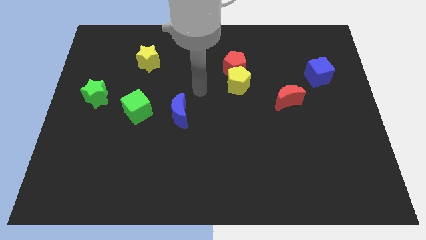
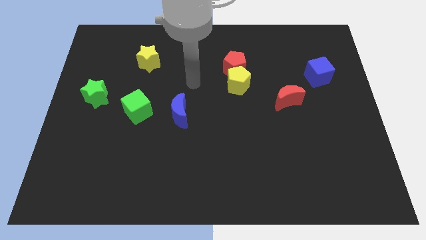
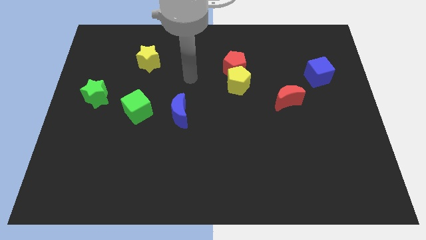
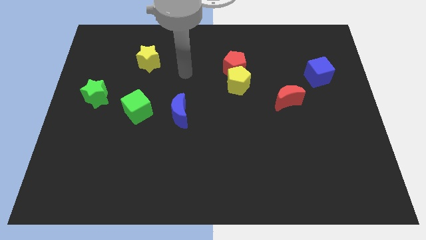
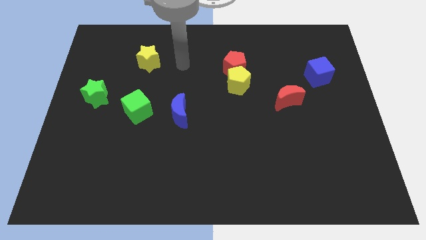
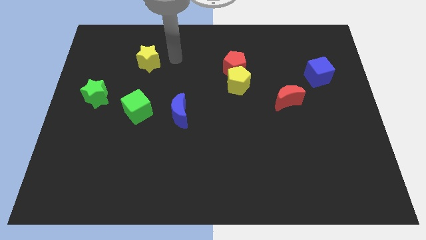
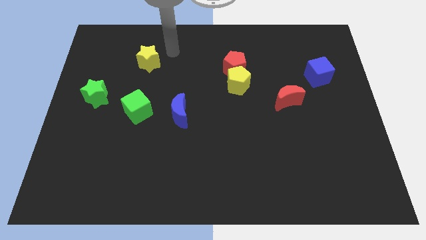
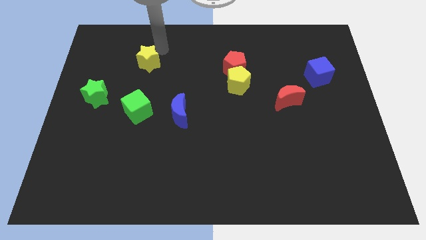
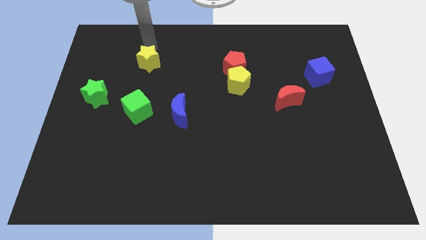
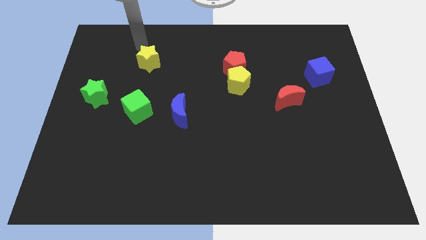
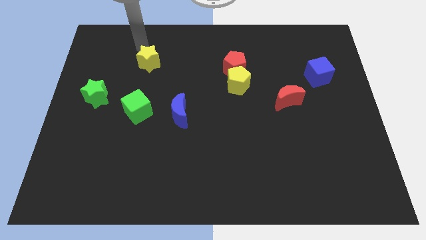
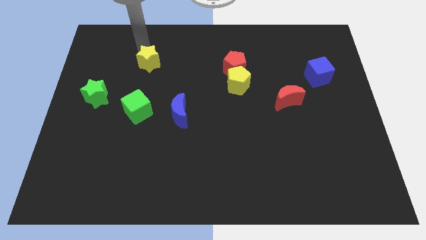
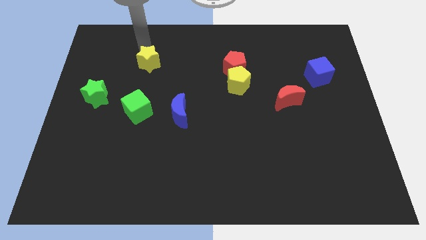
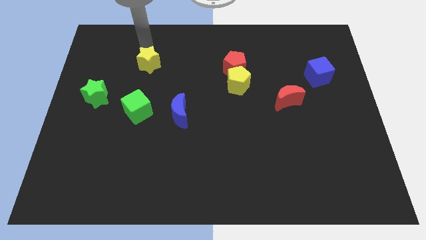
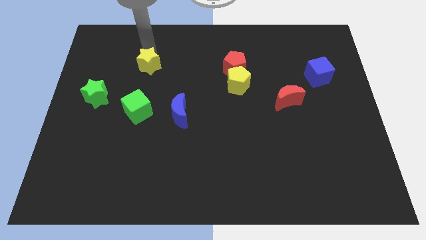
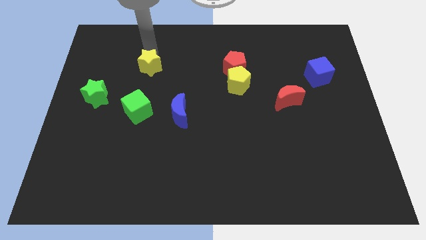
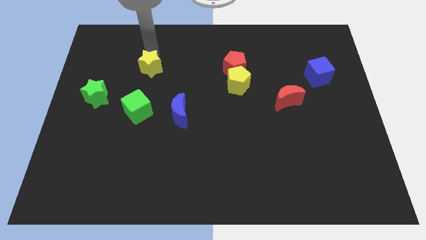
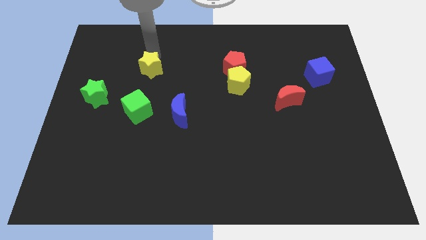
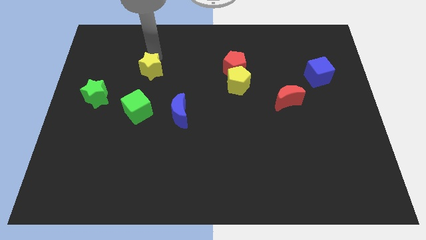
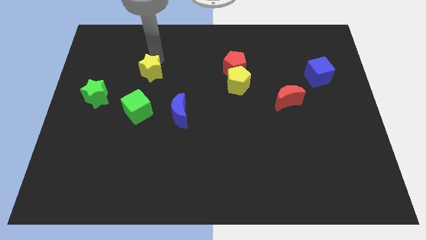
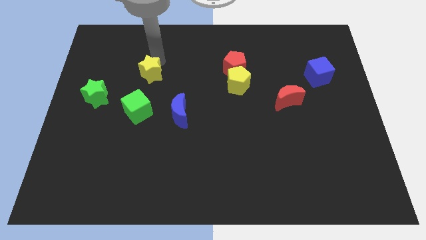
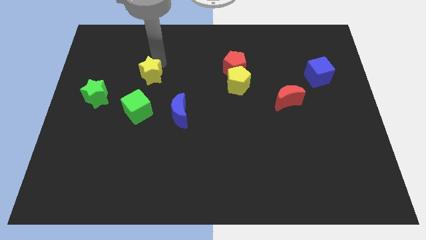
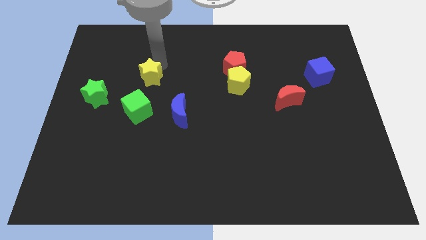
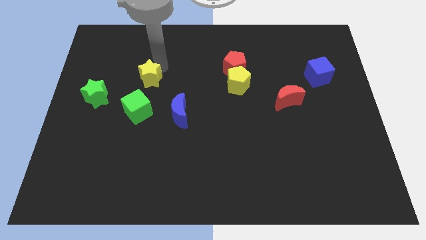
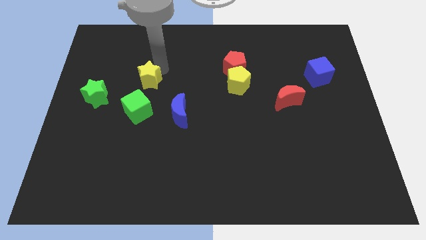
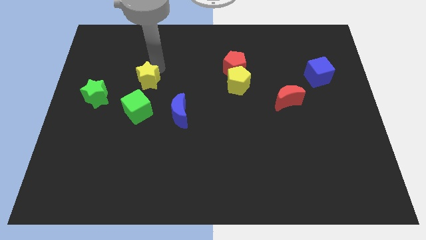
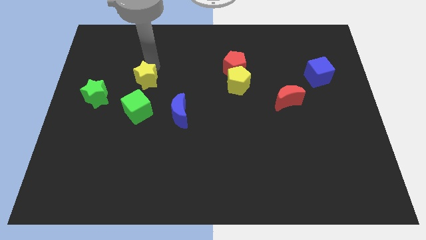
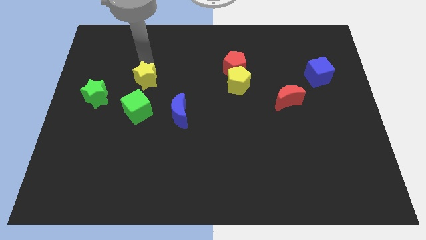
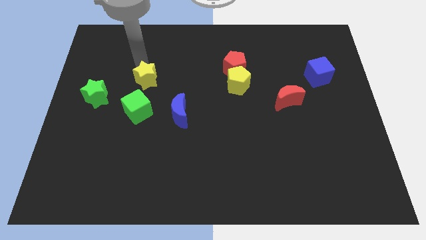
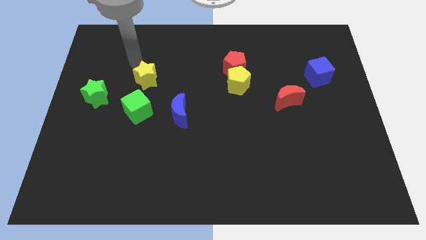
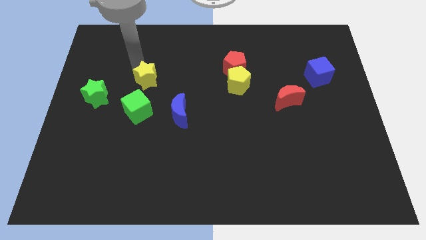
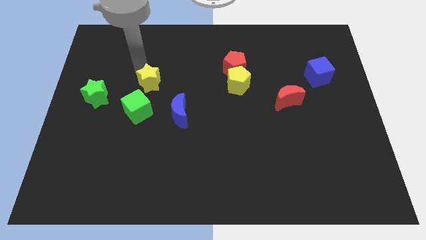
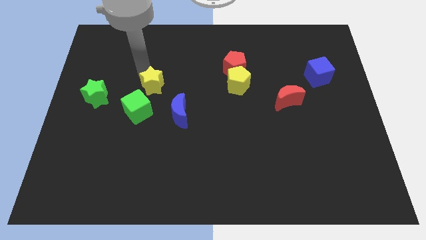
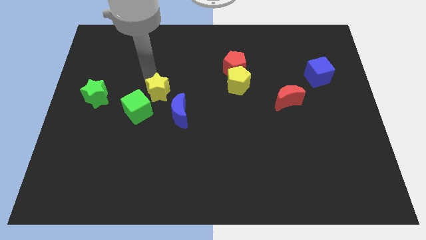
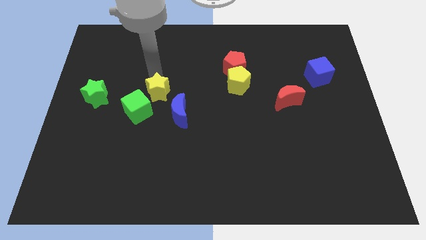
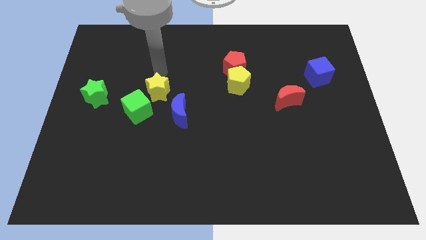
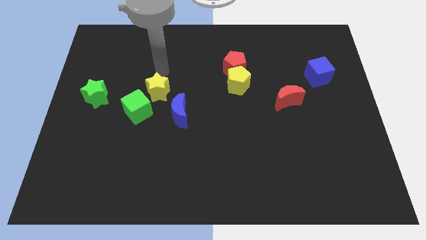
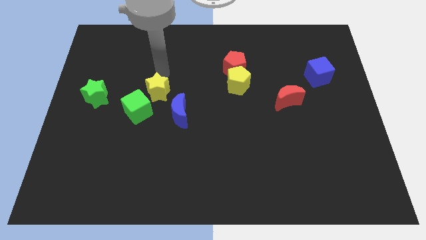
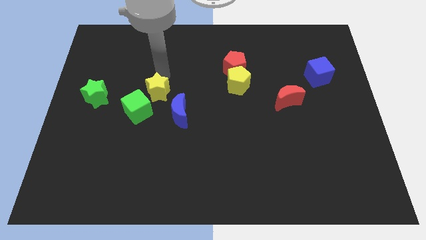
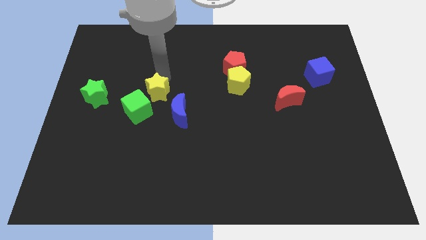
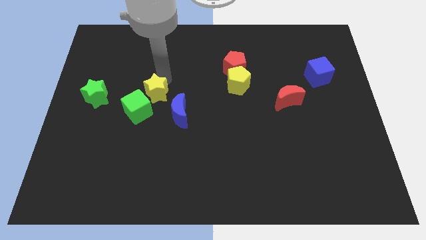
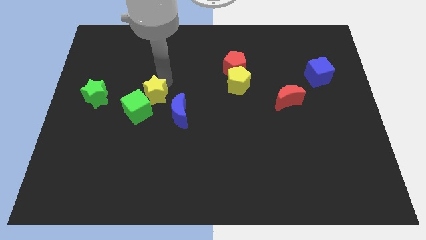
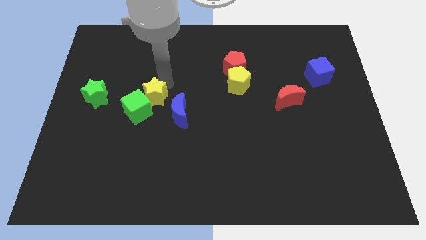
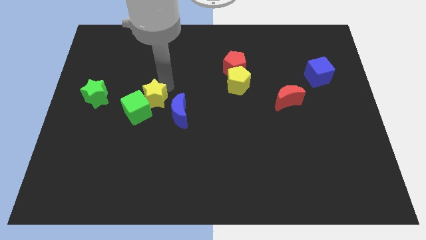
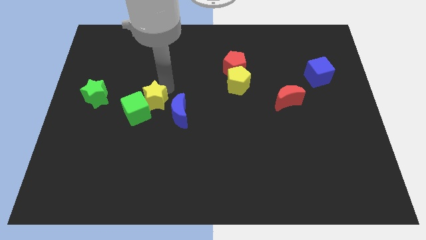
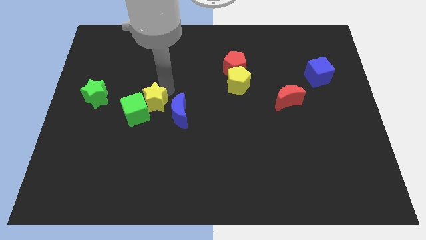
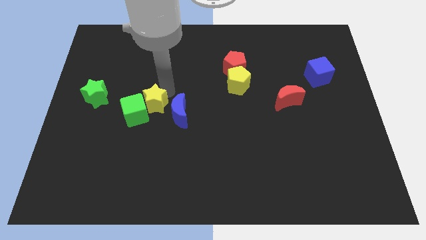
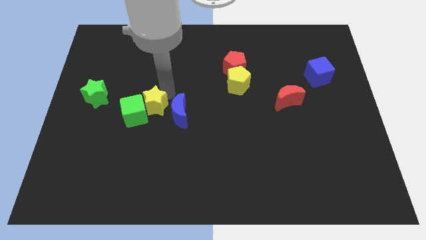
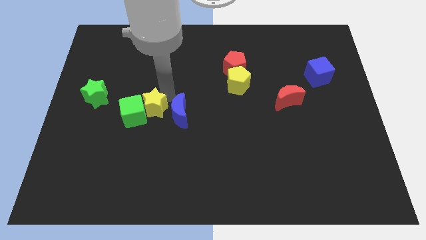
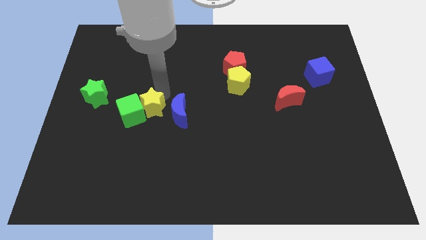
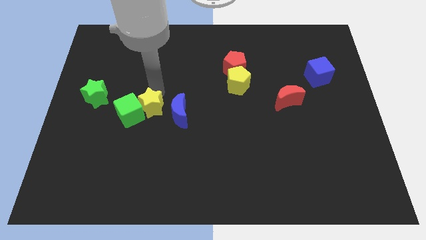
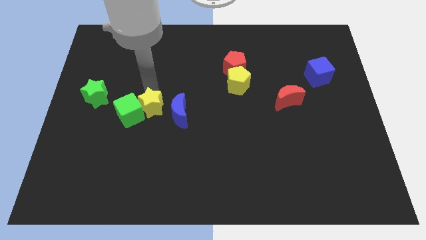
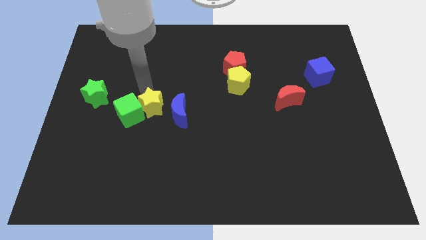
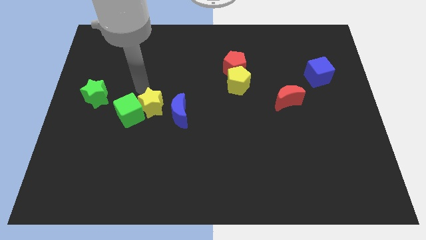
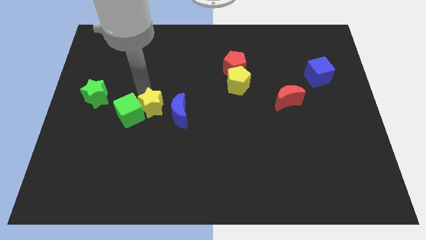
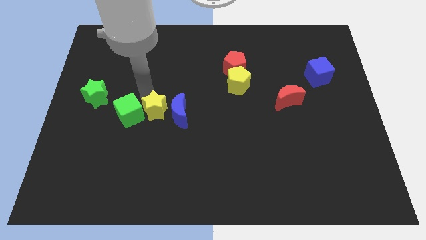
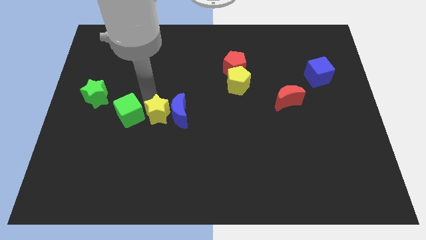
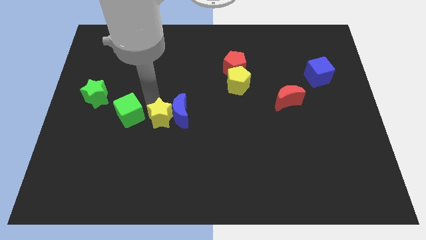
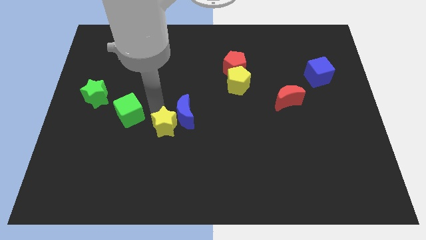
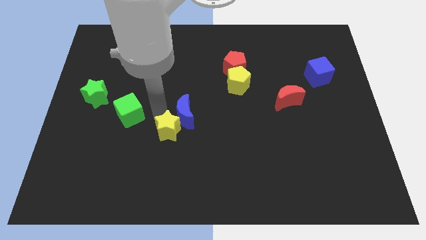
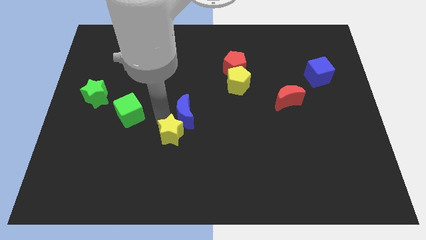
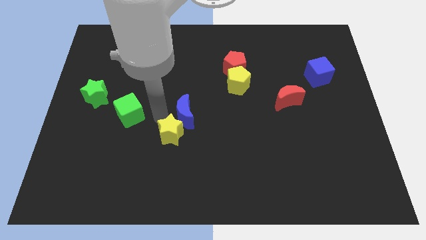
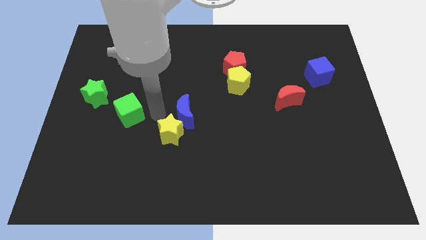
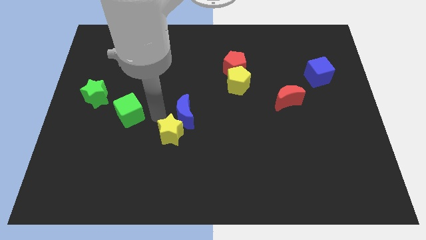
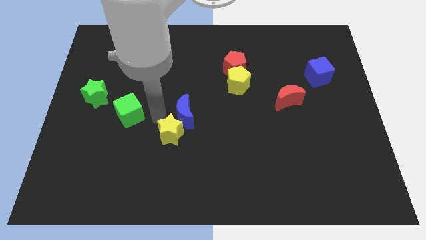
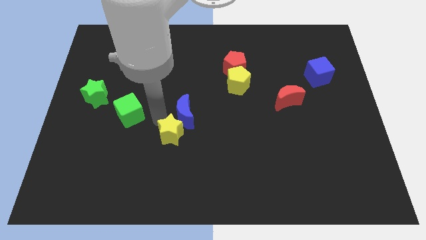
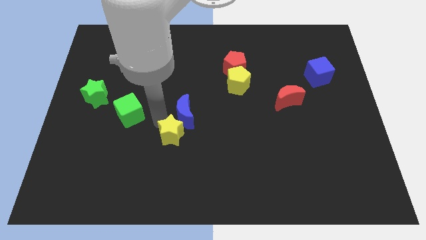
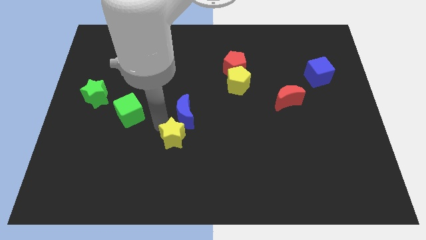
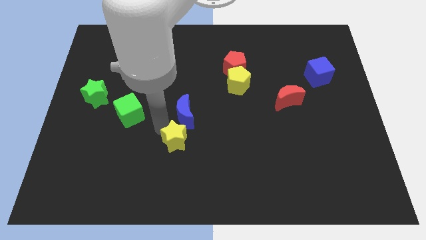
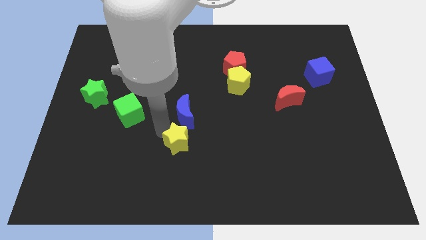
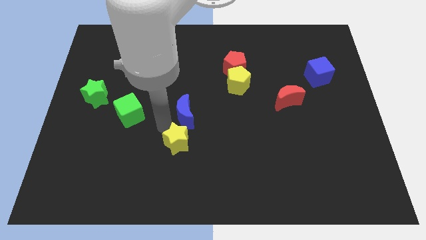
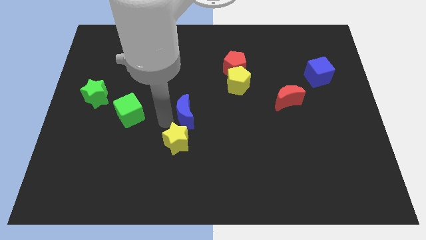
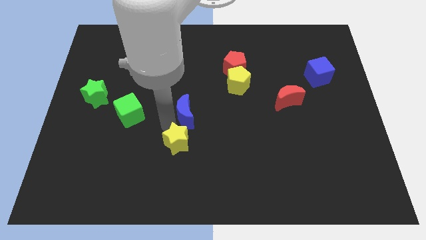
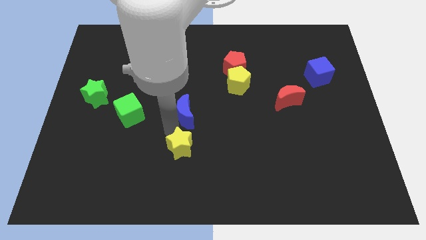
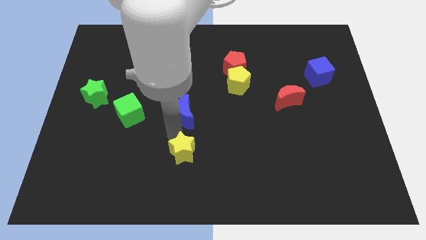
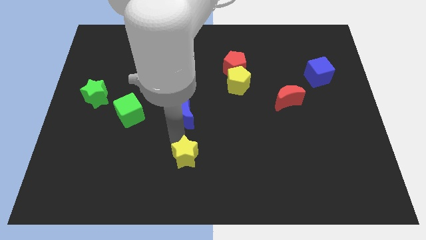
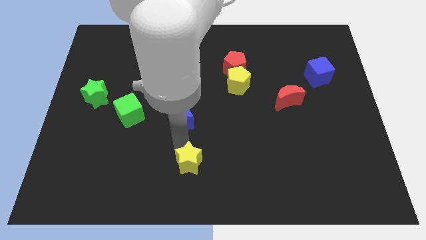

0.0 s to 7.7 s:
move the yellow star to the bottom side
